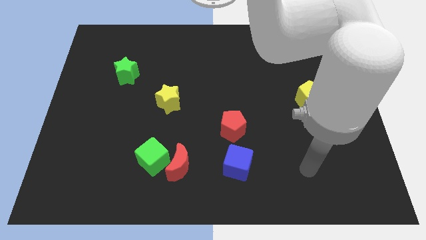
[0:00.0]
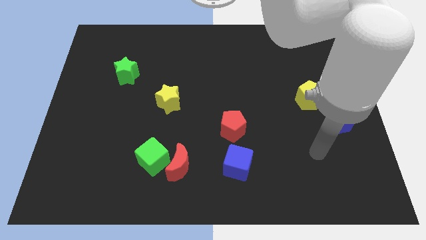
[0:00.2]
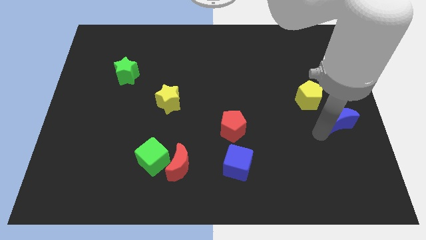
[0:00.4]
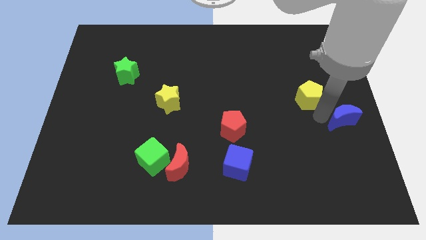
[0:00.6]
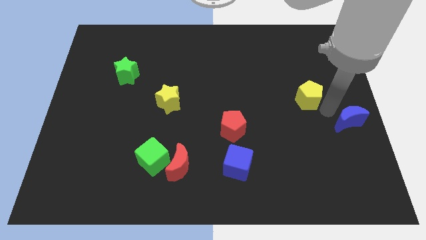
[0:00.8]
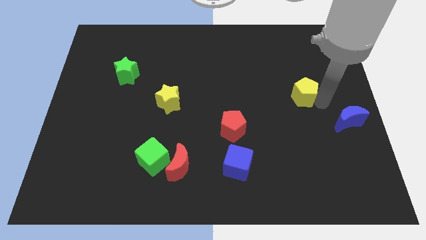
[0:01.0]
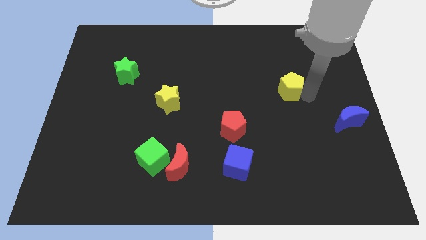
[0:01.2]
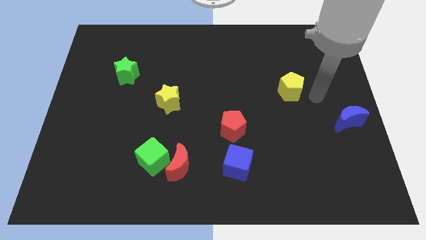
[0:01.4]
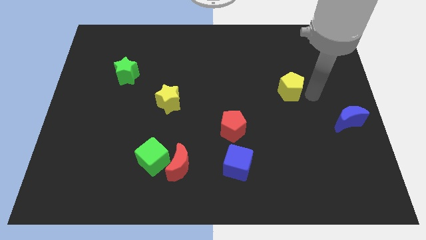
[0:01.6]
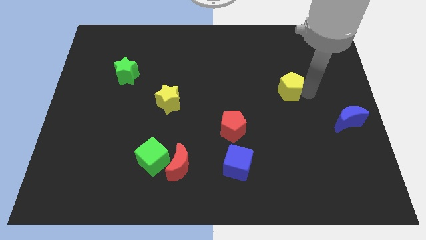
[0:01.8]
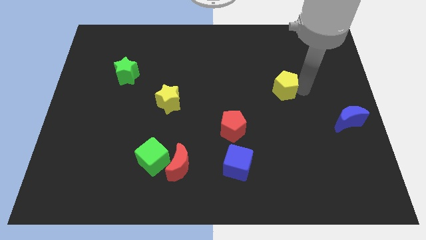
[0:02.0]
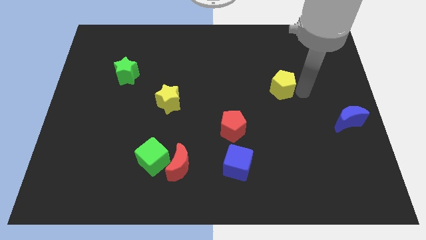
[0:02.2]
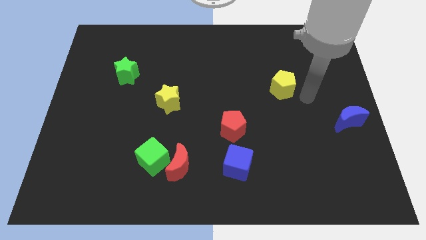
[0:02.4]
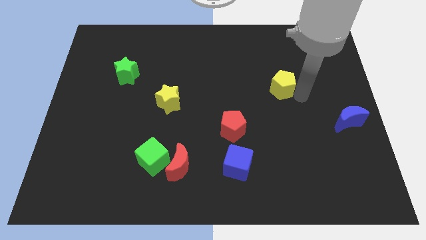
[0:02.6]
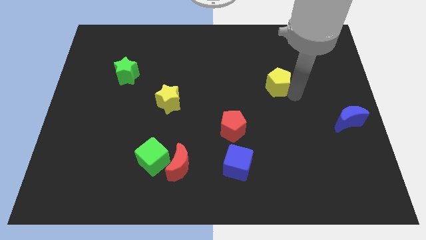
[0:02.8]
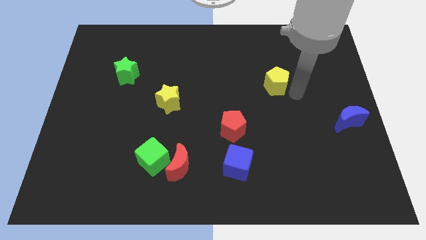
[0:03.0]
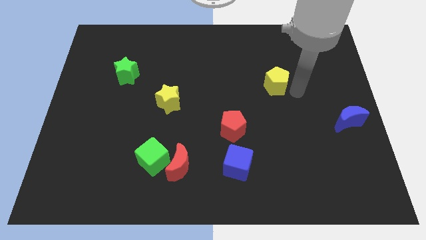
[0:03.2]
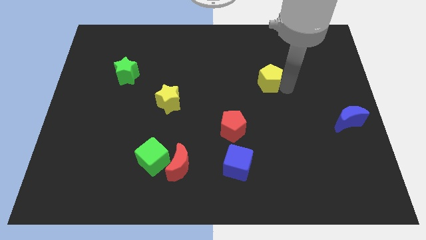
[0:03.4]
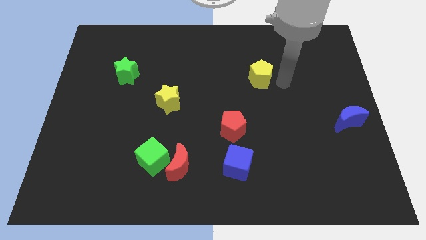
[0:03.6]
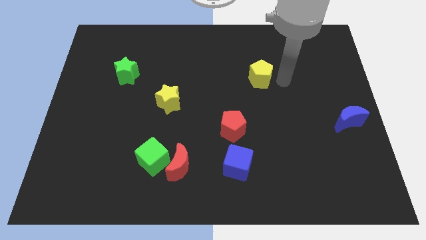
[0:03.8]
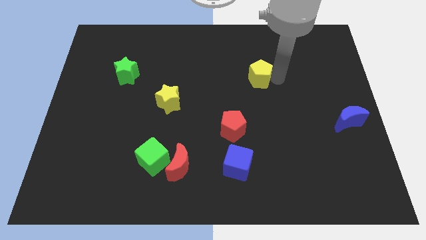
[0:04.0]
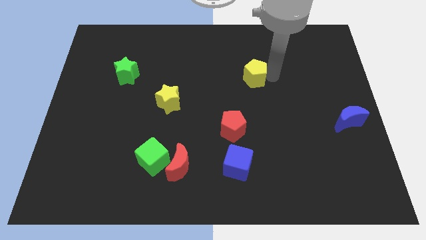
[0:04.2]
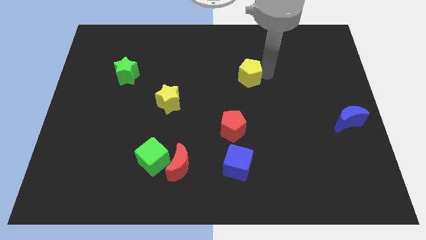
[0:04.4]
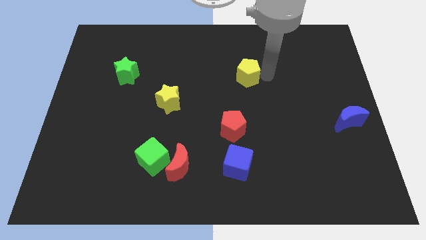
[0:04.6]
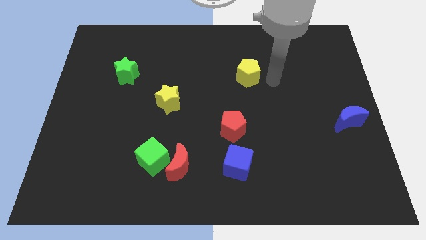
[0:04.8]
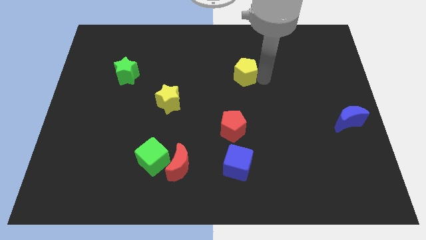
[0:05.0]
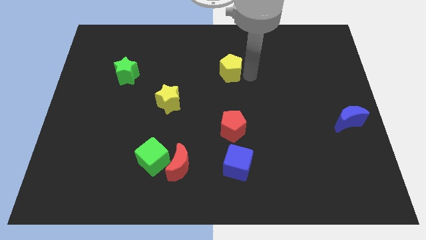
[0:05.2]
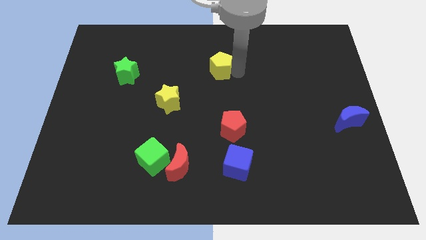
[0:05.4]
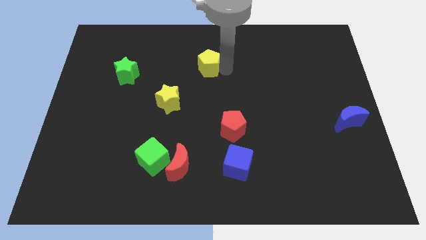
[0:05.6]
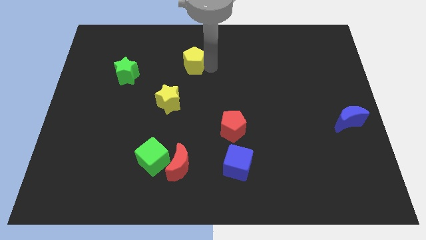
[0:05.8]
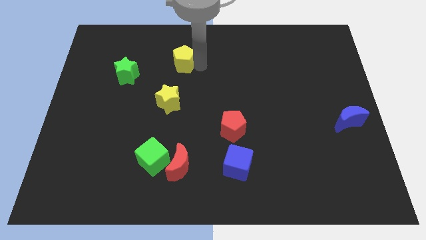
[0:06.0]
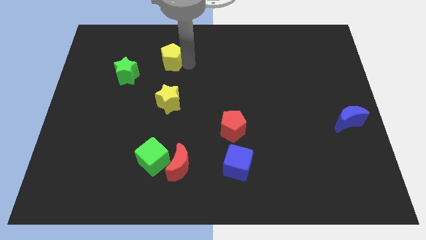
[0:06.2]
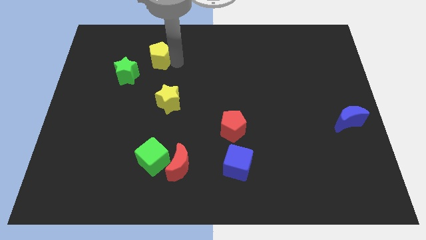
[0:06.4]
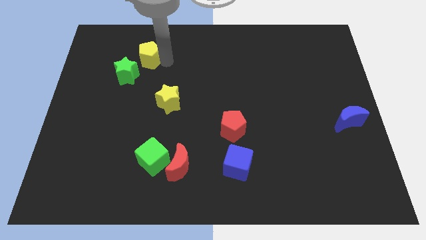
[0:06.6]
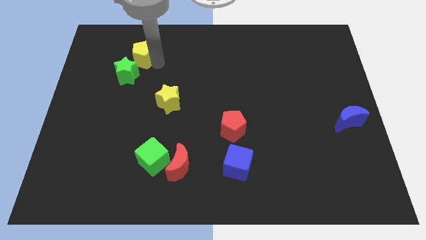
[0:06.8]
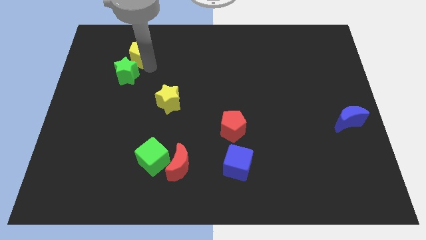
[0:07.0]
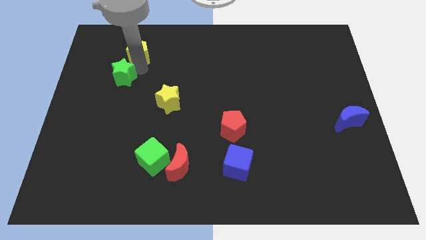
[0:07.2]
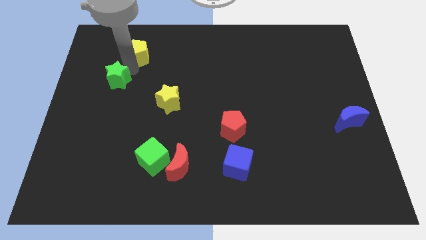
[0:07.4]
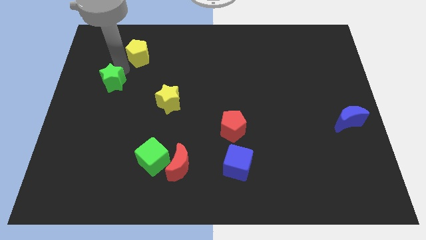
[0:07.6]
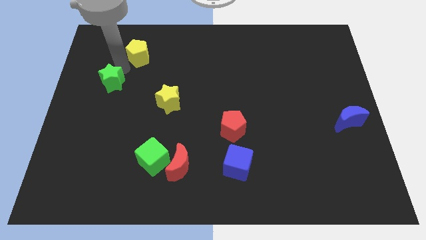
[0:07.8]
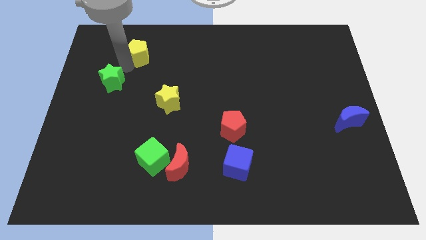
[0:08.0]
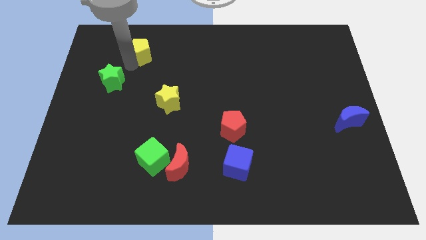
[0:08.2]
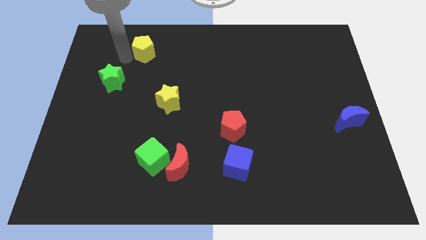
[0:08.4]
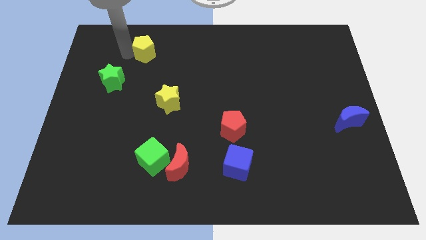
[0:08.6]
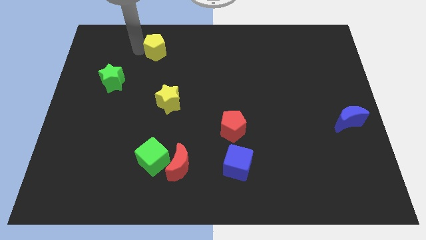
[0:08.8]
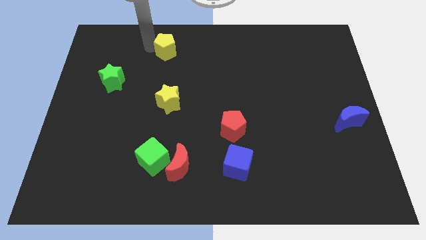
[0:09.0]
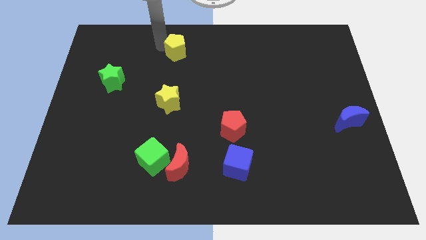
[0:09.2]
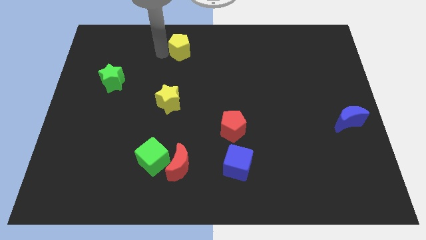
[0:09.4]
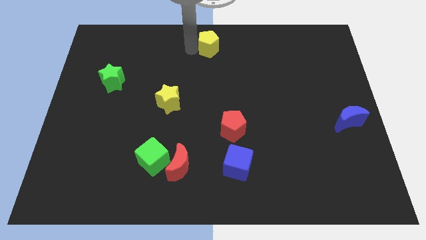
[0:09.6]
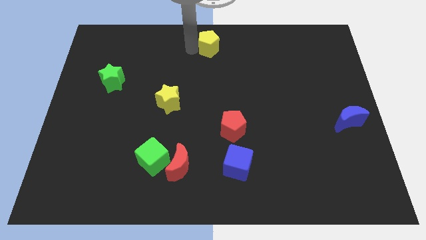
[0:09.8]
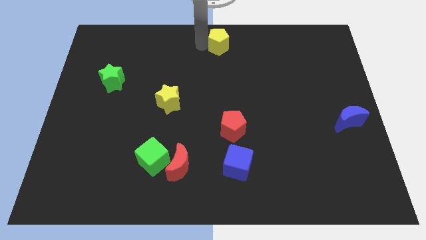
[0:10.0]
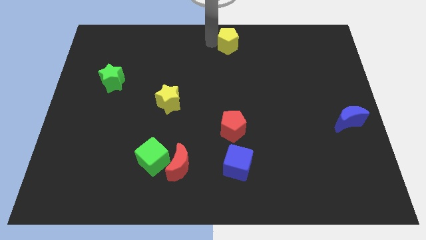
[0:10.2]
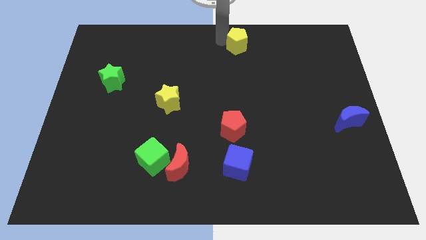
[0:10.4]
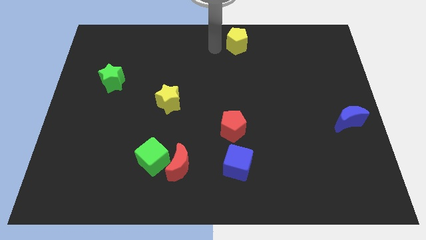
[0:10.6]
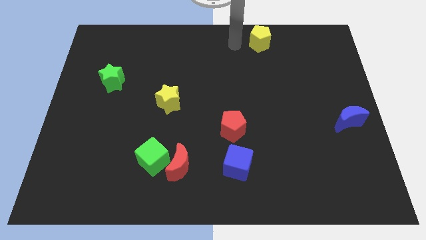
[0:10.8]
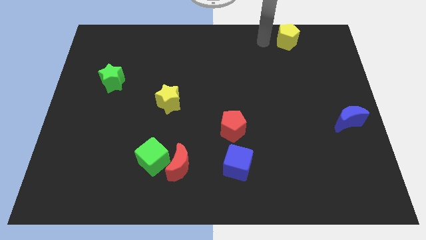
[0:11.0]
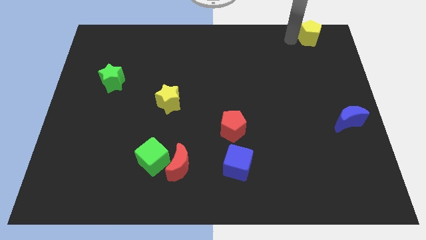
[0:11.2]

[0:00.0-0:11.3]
push the yellow pentagon to the upper right corner

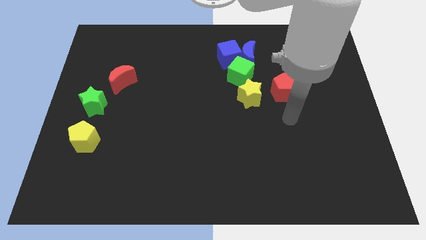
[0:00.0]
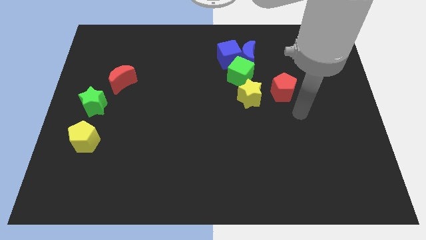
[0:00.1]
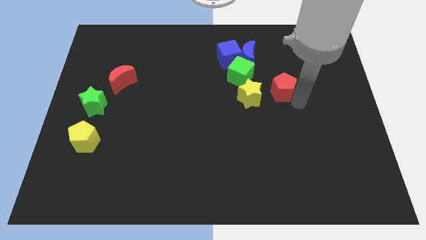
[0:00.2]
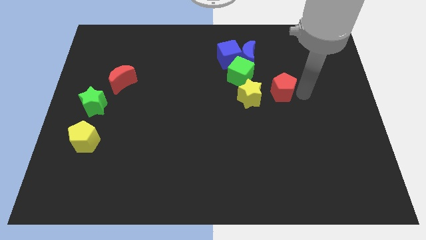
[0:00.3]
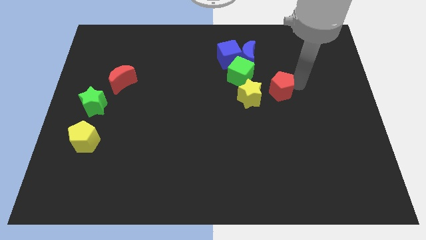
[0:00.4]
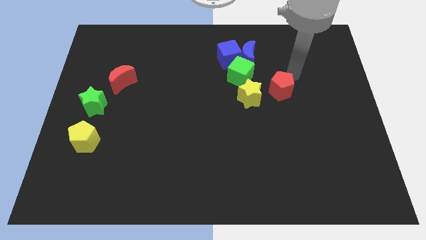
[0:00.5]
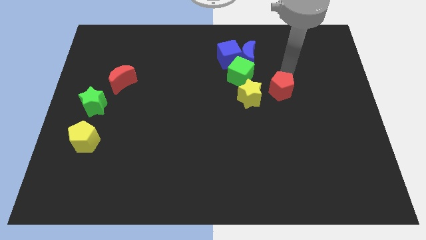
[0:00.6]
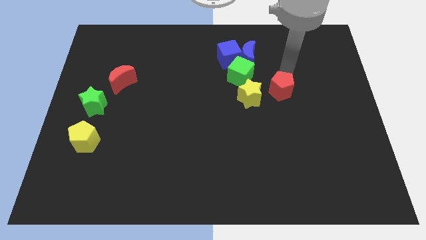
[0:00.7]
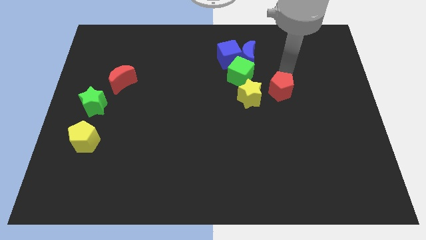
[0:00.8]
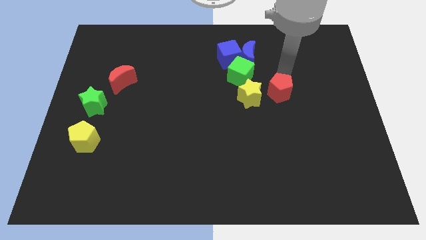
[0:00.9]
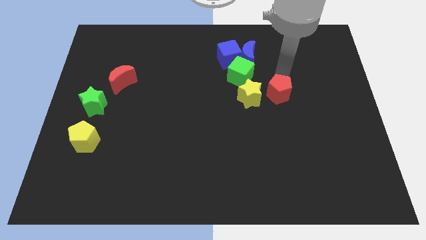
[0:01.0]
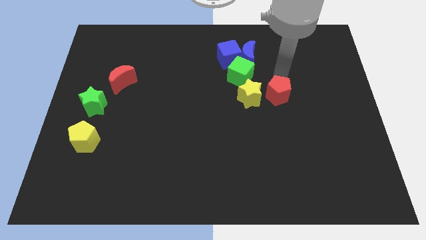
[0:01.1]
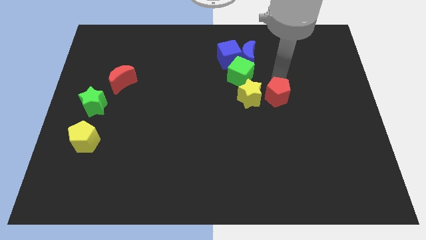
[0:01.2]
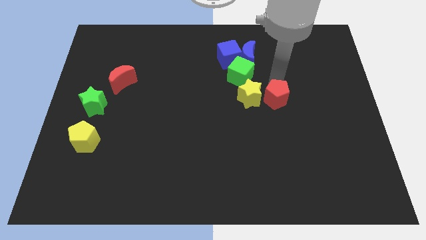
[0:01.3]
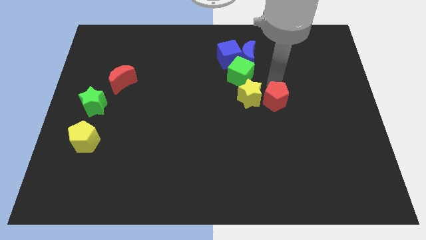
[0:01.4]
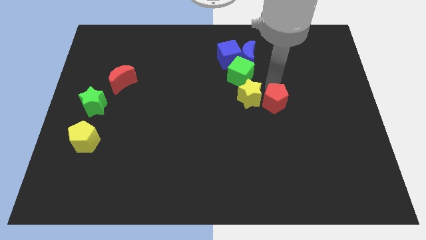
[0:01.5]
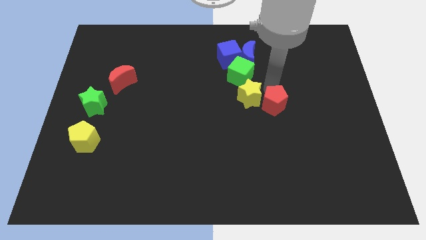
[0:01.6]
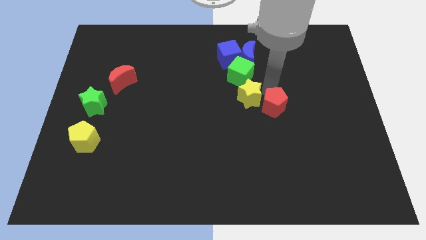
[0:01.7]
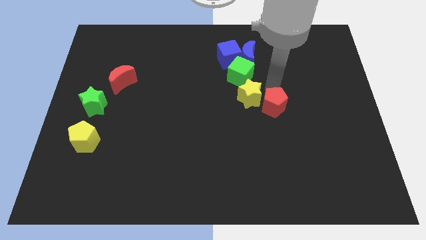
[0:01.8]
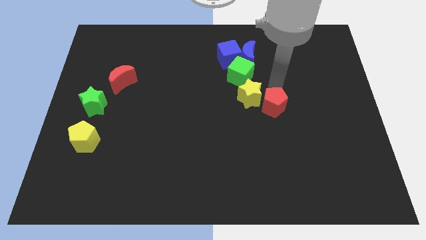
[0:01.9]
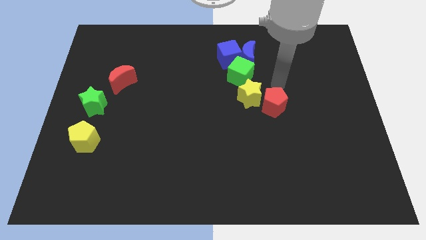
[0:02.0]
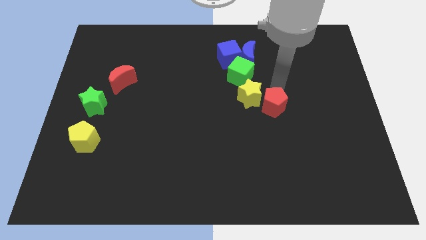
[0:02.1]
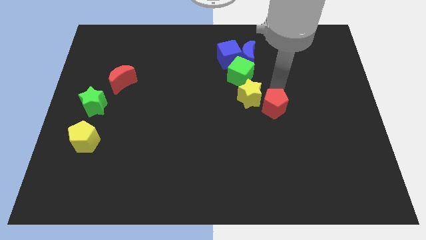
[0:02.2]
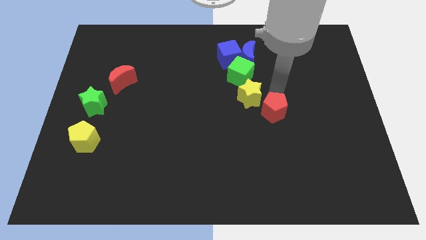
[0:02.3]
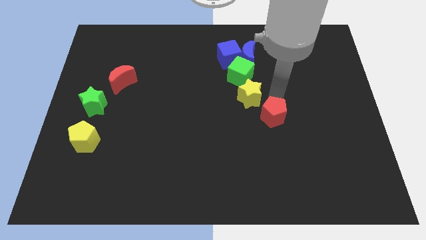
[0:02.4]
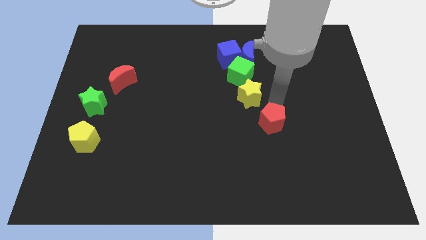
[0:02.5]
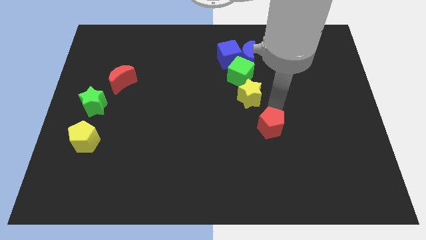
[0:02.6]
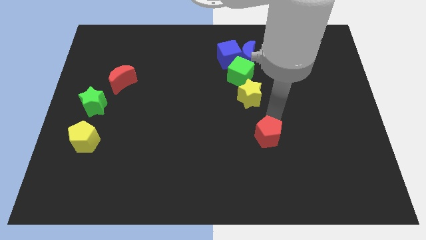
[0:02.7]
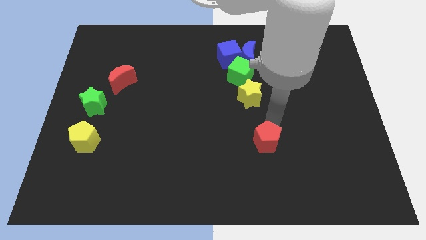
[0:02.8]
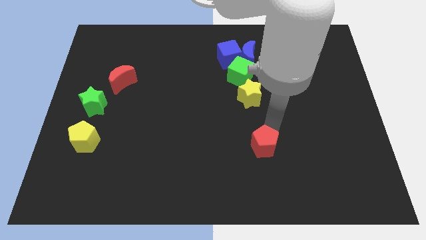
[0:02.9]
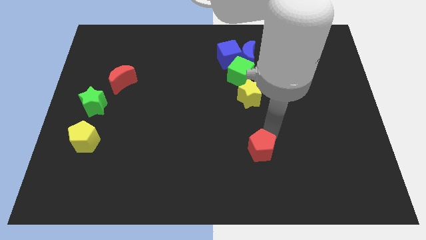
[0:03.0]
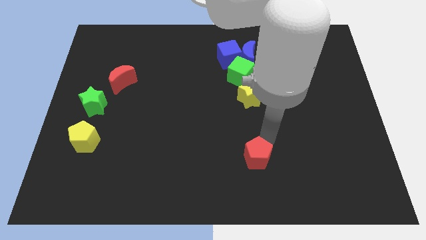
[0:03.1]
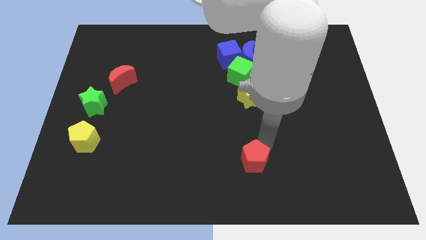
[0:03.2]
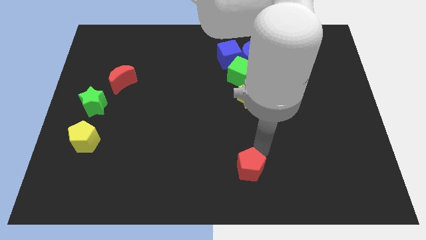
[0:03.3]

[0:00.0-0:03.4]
slide the red pentagon to the bottom side
